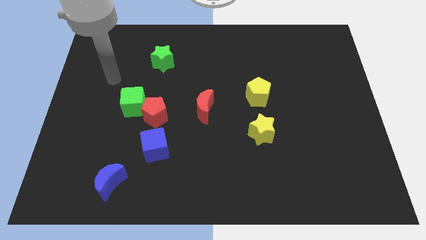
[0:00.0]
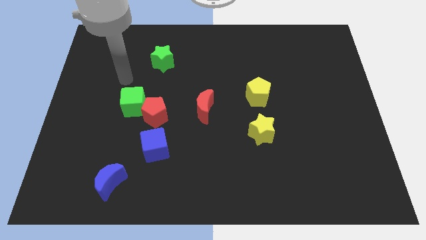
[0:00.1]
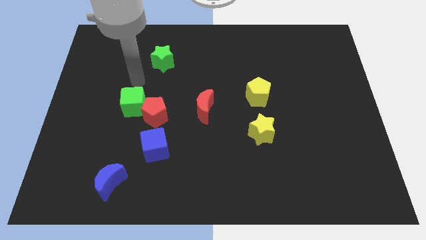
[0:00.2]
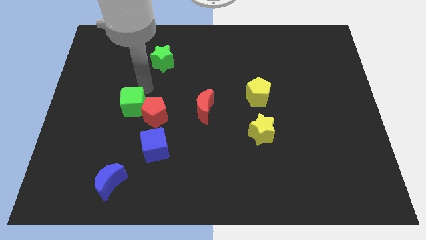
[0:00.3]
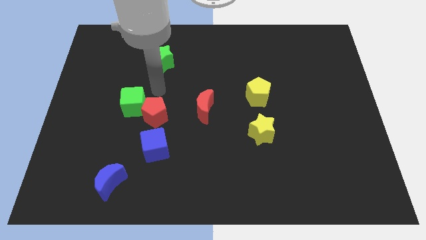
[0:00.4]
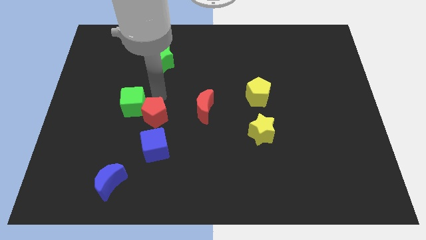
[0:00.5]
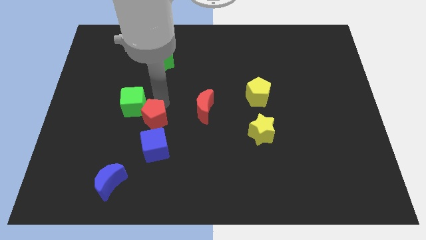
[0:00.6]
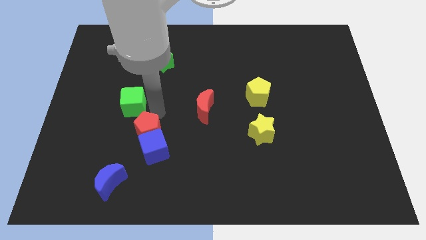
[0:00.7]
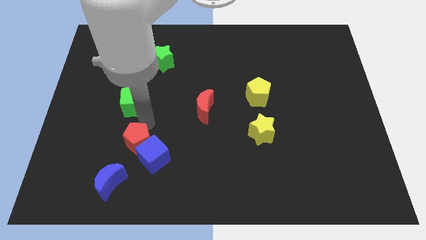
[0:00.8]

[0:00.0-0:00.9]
separate the green cube from the red pentagon

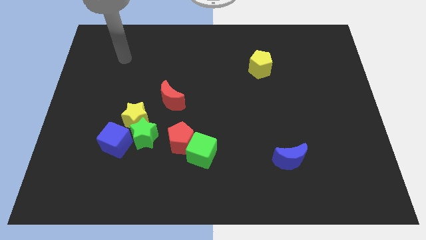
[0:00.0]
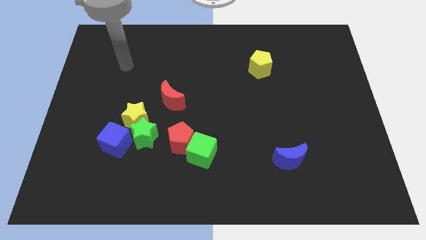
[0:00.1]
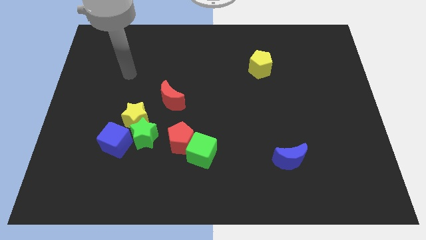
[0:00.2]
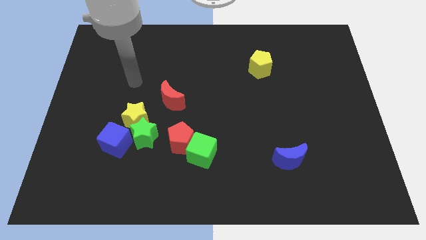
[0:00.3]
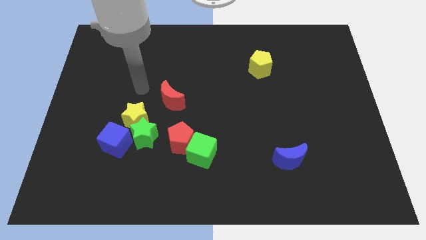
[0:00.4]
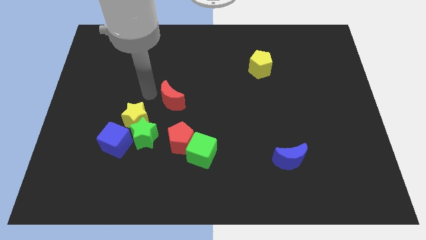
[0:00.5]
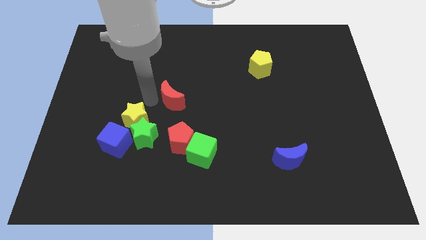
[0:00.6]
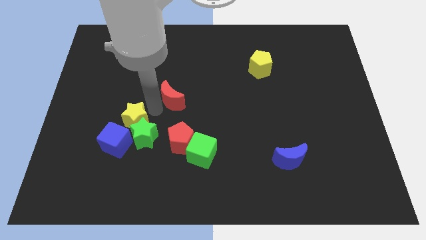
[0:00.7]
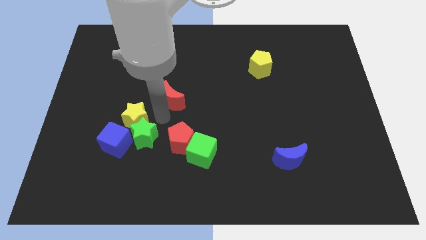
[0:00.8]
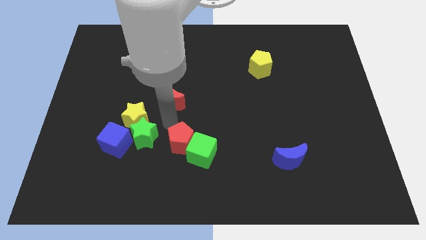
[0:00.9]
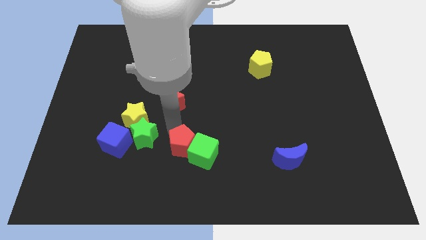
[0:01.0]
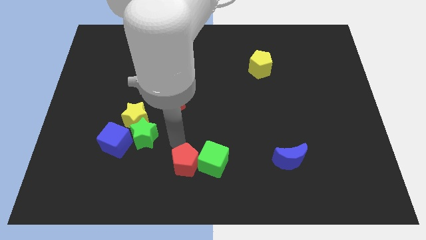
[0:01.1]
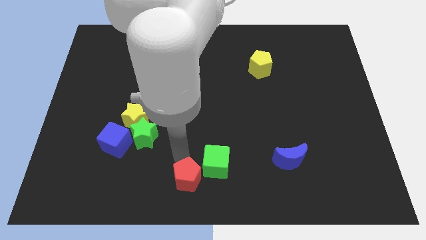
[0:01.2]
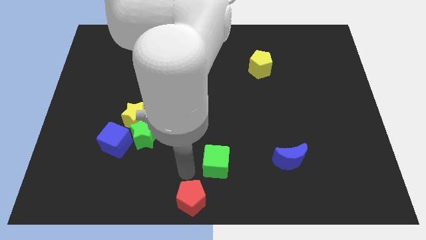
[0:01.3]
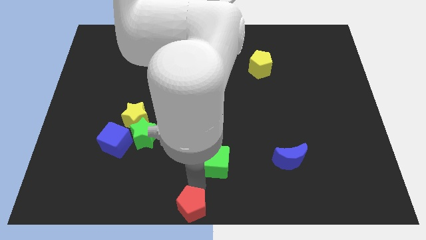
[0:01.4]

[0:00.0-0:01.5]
move the green cube away from the red pentagon

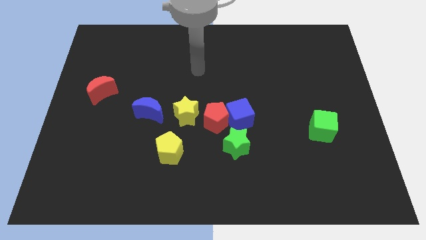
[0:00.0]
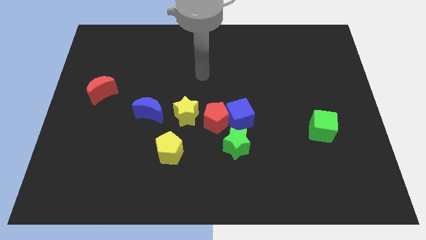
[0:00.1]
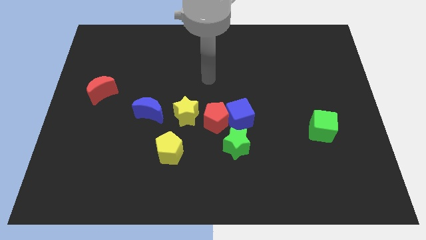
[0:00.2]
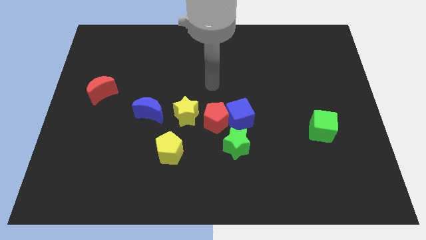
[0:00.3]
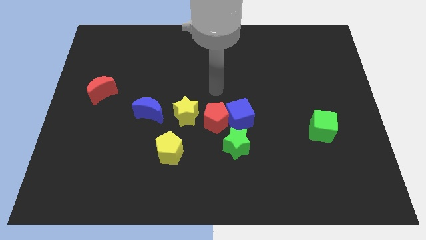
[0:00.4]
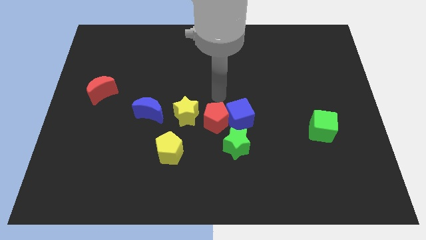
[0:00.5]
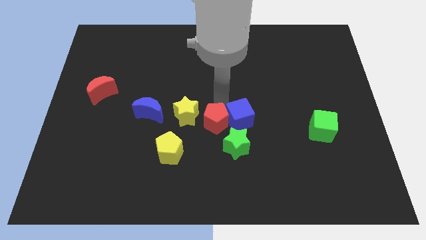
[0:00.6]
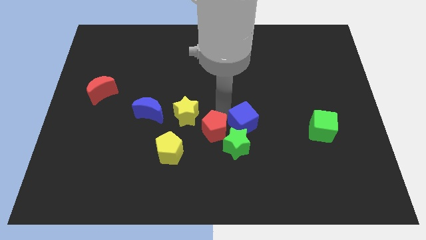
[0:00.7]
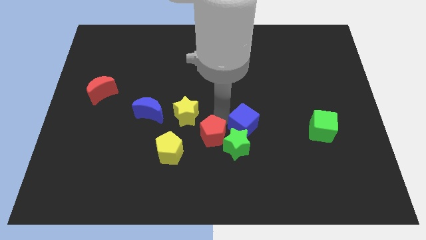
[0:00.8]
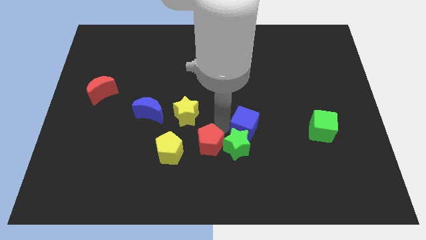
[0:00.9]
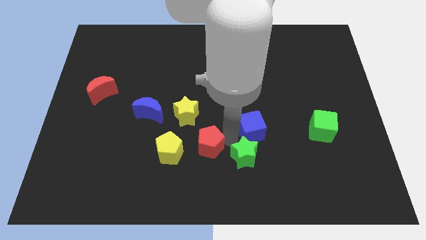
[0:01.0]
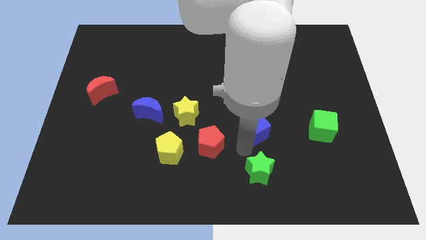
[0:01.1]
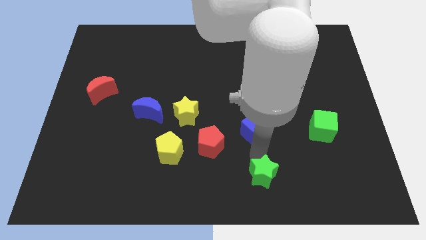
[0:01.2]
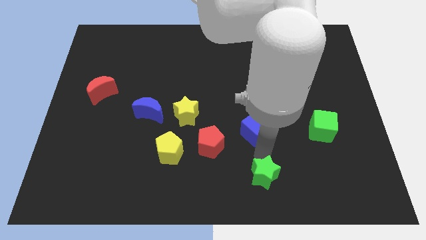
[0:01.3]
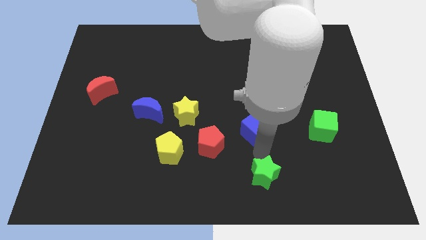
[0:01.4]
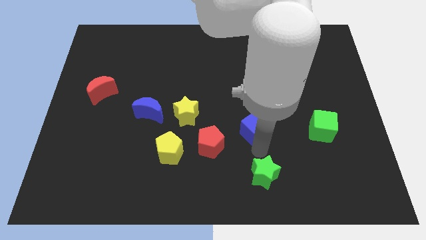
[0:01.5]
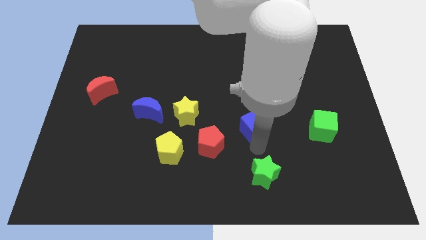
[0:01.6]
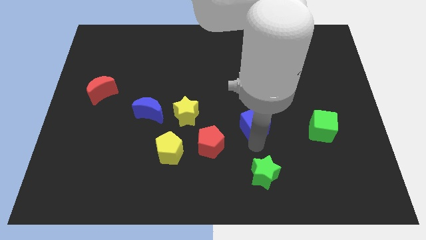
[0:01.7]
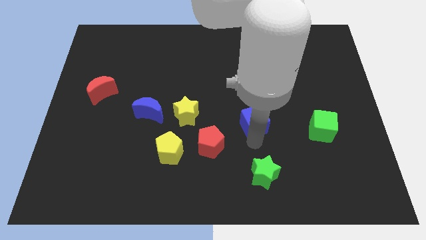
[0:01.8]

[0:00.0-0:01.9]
move the blue cube away from the red pentagon and green star

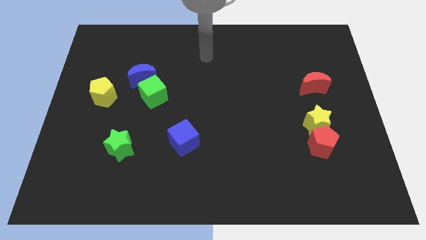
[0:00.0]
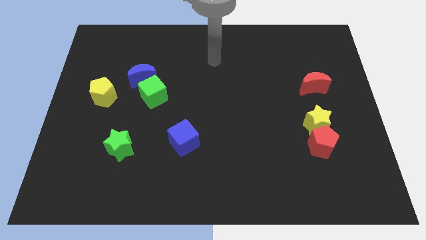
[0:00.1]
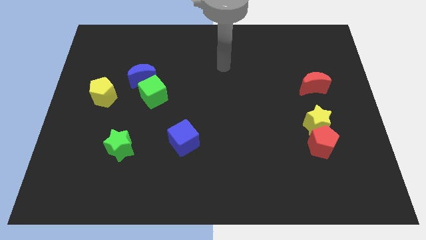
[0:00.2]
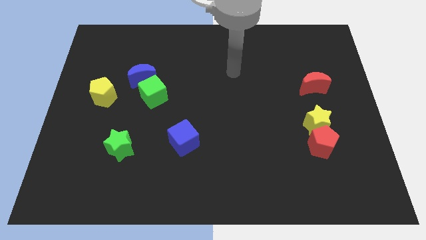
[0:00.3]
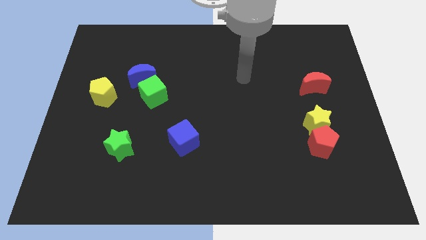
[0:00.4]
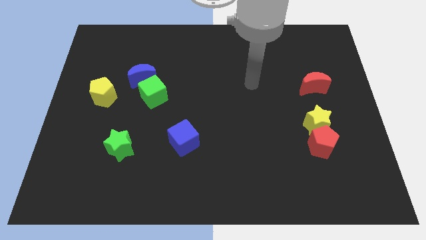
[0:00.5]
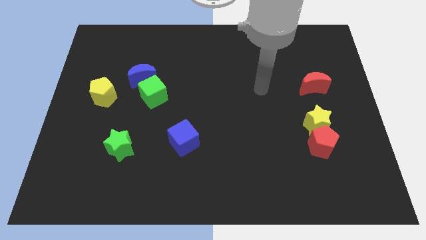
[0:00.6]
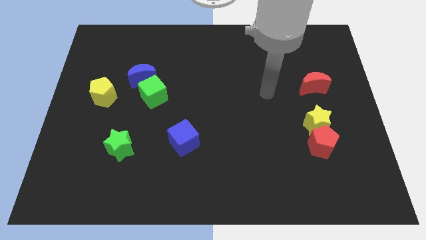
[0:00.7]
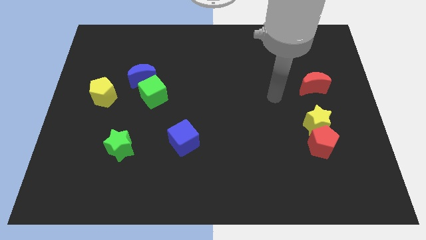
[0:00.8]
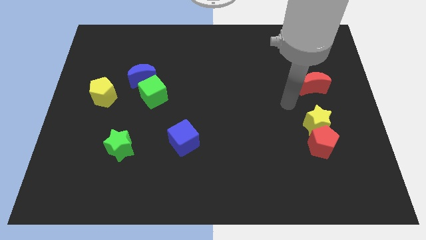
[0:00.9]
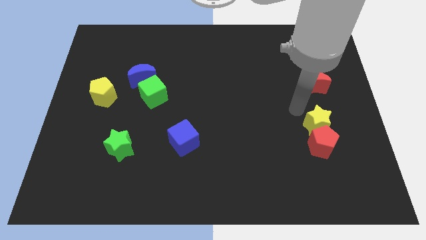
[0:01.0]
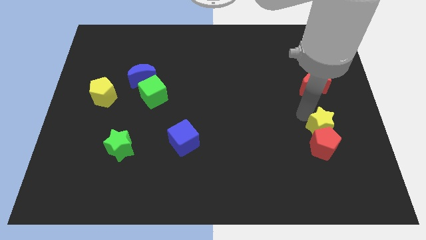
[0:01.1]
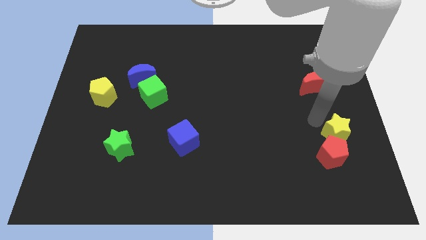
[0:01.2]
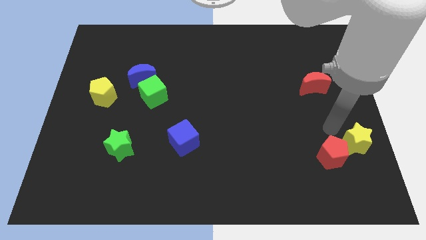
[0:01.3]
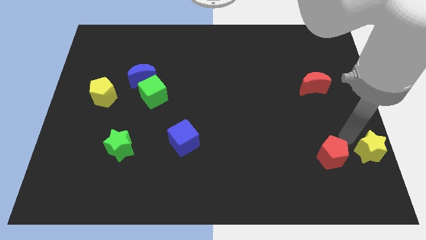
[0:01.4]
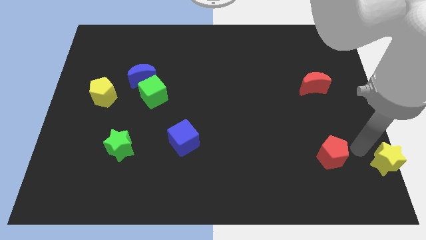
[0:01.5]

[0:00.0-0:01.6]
move the red pentagon away from the yellow star

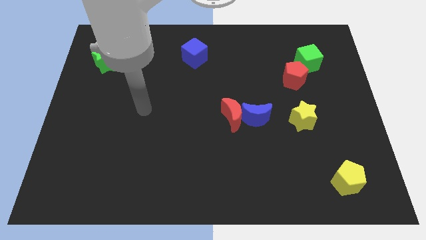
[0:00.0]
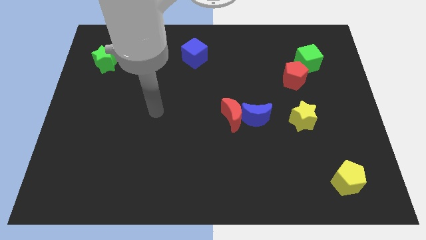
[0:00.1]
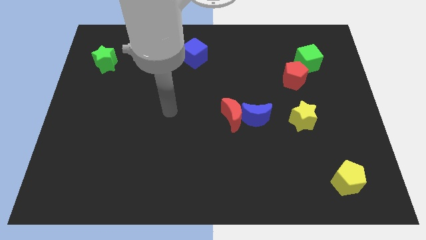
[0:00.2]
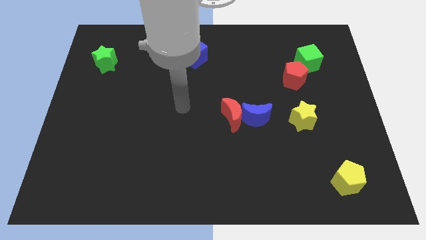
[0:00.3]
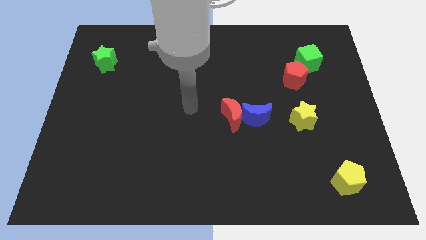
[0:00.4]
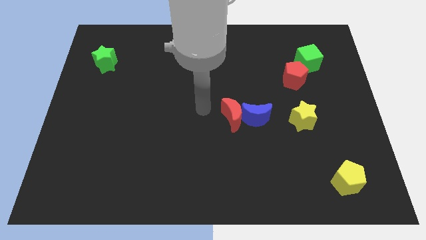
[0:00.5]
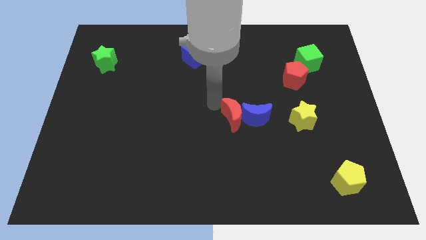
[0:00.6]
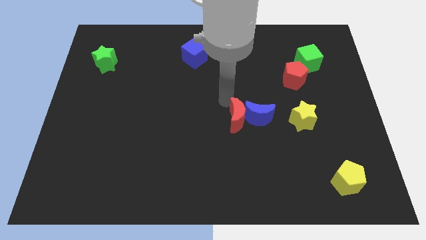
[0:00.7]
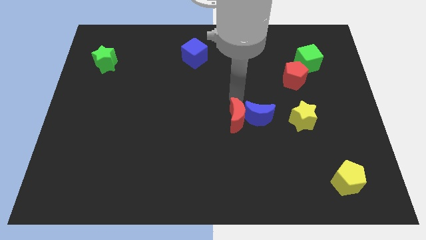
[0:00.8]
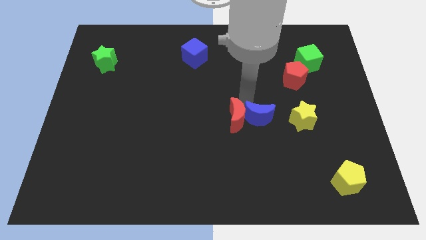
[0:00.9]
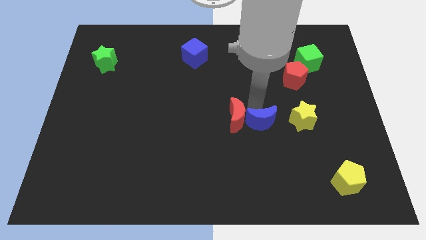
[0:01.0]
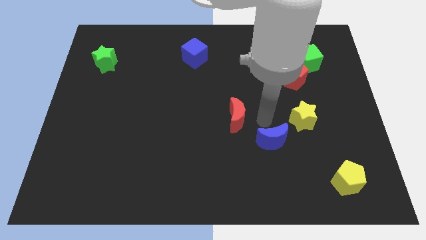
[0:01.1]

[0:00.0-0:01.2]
separate the red moon from the blue moon

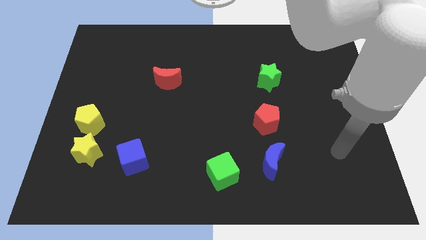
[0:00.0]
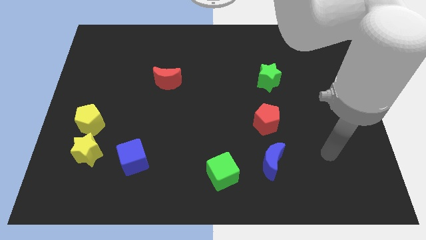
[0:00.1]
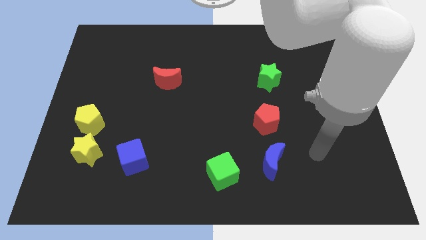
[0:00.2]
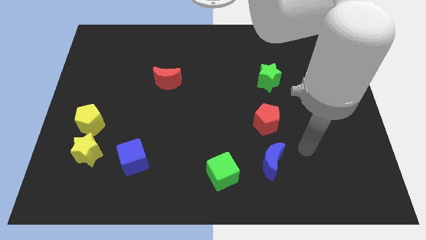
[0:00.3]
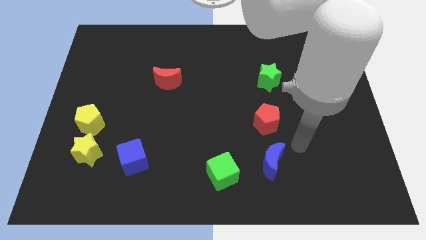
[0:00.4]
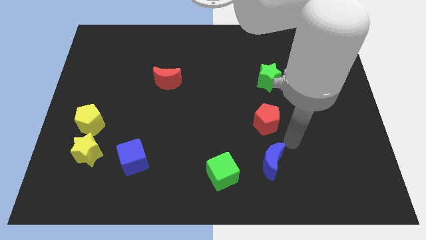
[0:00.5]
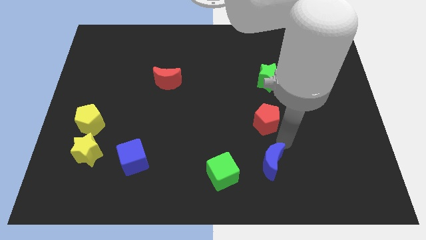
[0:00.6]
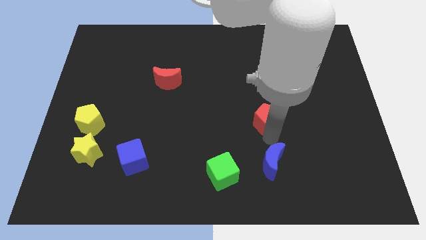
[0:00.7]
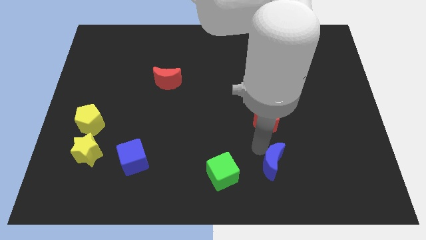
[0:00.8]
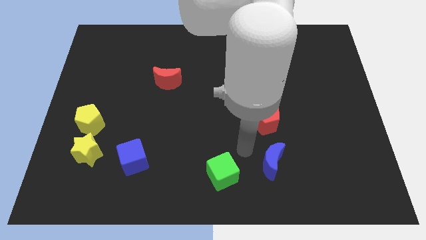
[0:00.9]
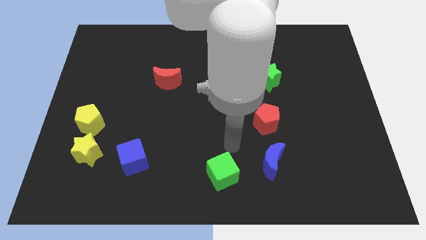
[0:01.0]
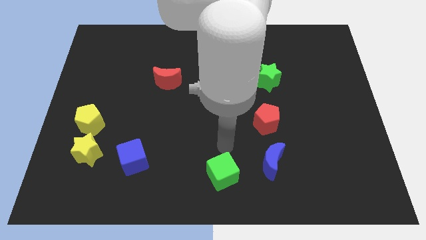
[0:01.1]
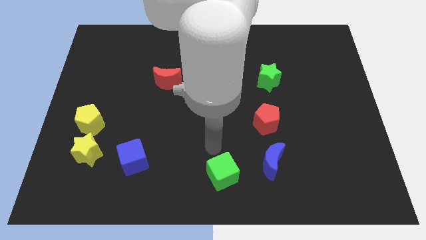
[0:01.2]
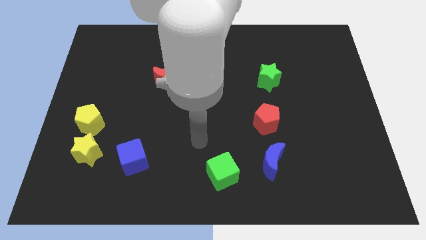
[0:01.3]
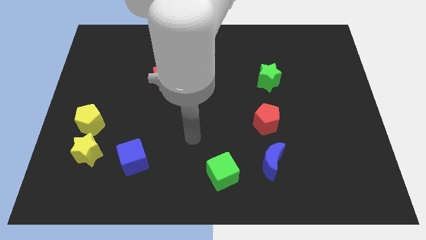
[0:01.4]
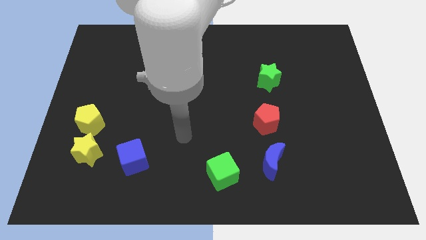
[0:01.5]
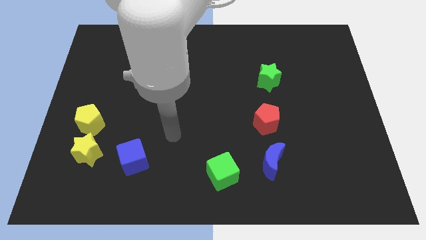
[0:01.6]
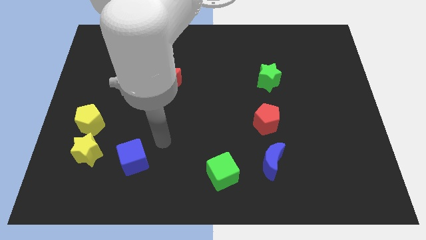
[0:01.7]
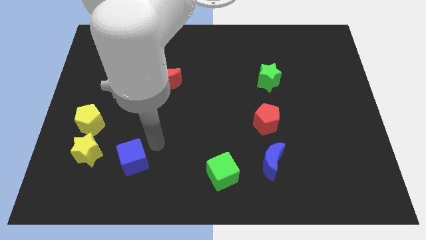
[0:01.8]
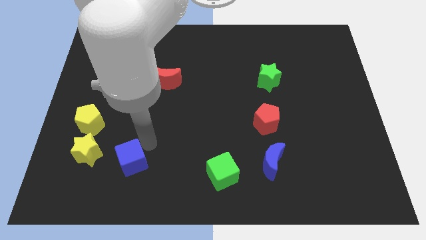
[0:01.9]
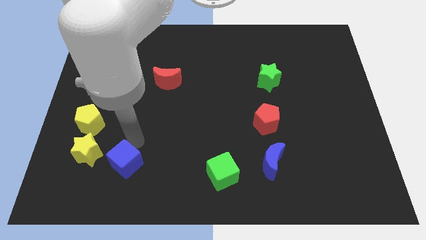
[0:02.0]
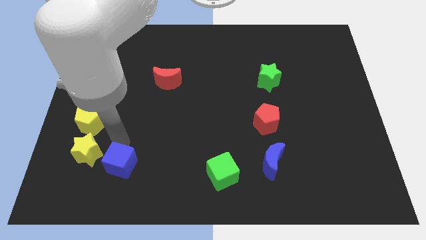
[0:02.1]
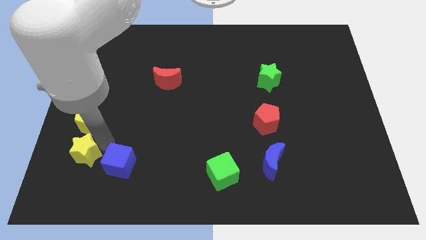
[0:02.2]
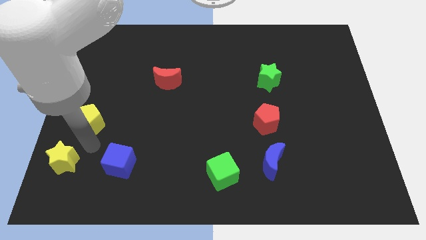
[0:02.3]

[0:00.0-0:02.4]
pull the yellow pentagon apart from the yellow star

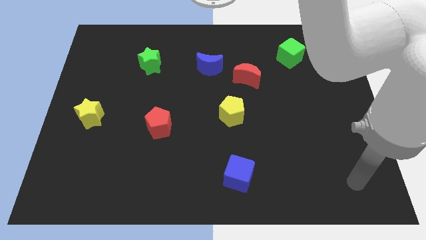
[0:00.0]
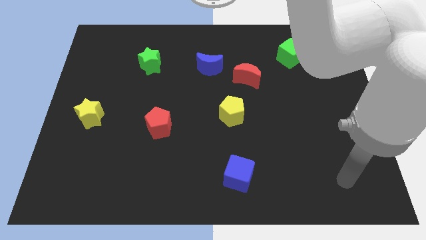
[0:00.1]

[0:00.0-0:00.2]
pull the red moon apart from the blue moon
